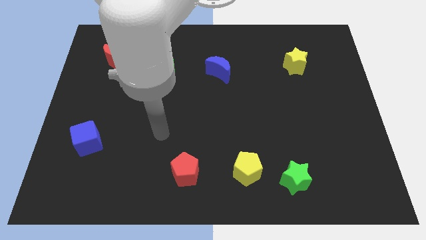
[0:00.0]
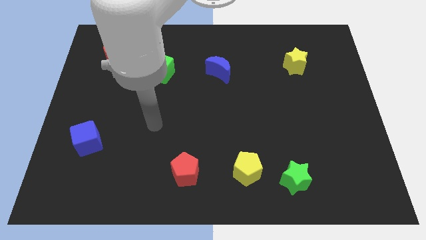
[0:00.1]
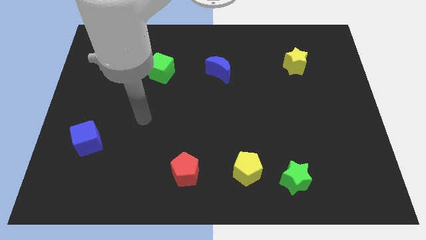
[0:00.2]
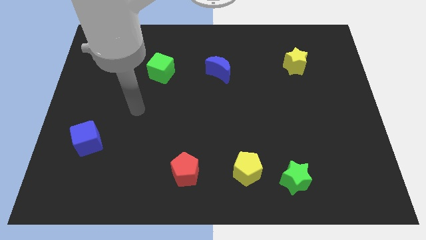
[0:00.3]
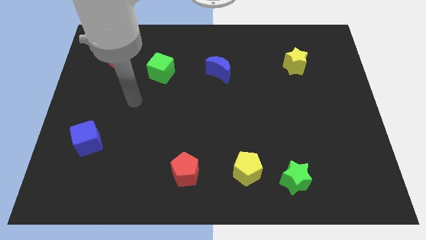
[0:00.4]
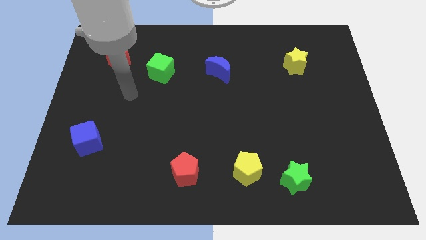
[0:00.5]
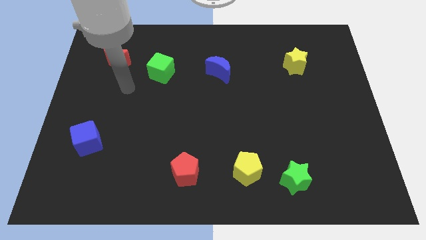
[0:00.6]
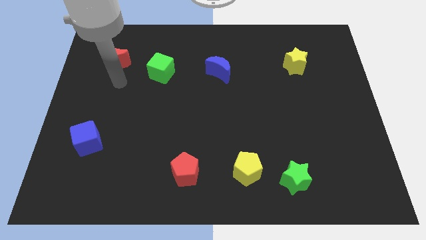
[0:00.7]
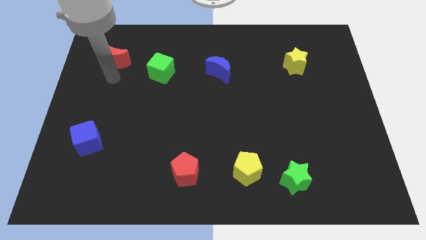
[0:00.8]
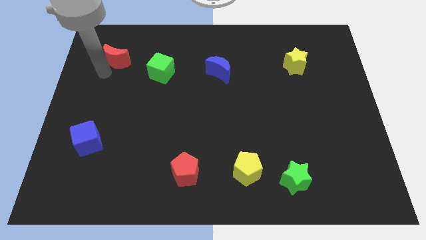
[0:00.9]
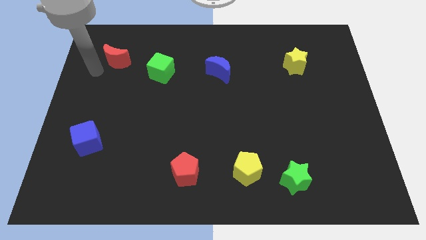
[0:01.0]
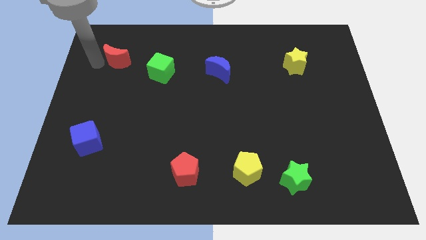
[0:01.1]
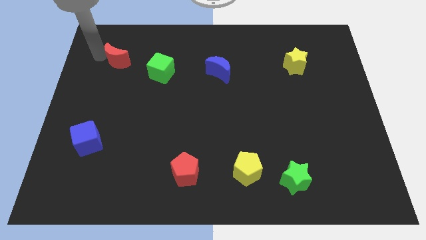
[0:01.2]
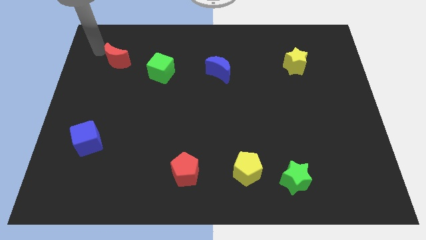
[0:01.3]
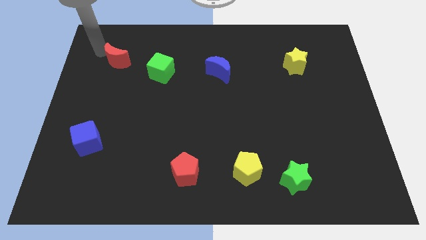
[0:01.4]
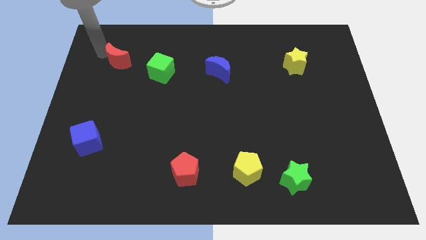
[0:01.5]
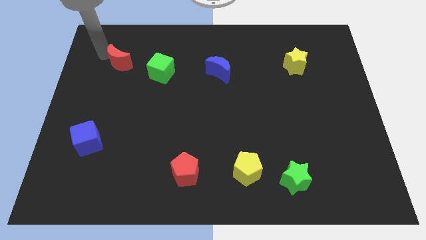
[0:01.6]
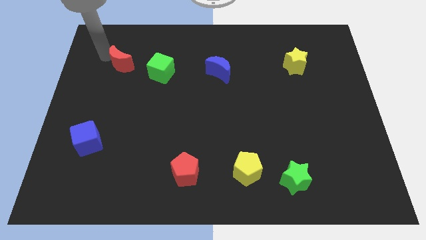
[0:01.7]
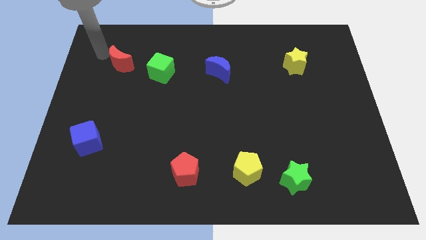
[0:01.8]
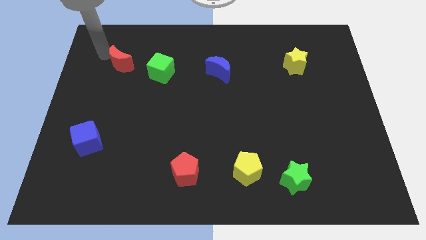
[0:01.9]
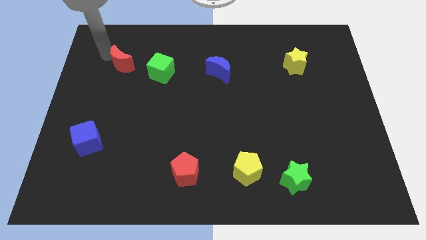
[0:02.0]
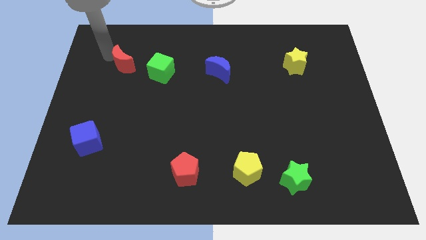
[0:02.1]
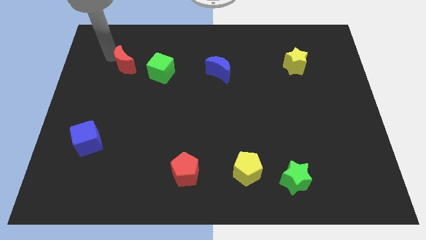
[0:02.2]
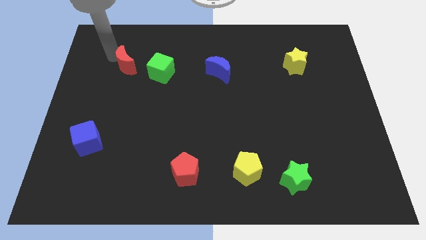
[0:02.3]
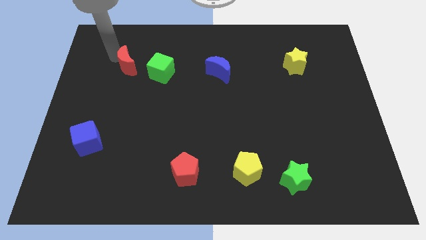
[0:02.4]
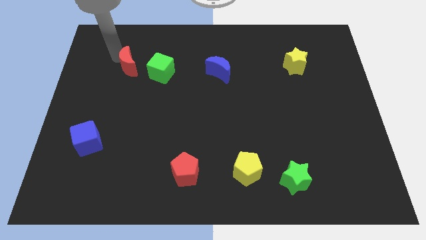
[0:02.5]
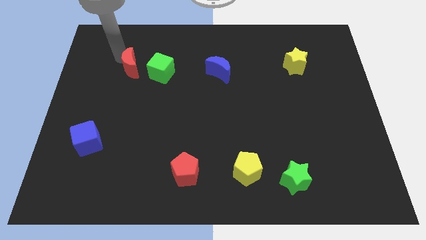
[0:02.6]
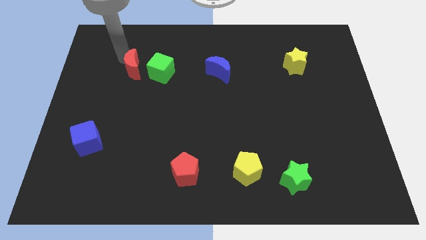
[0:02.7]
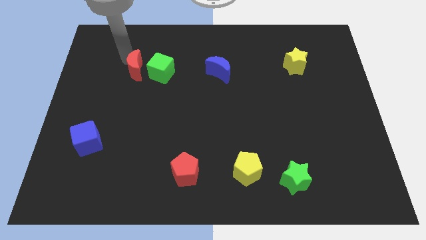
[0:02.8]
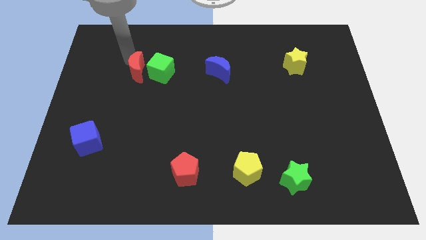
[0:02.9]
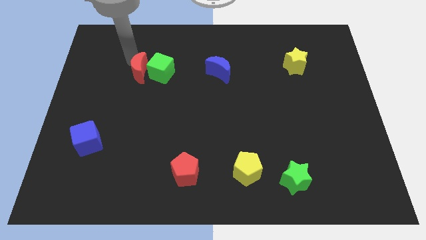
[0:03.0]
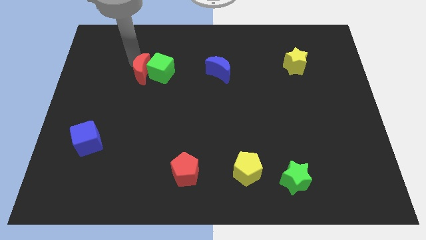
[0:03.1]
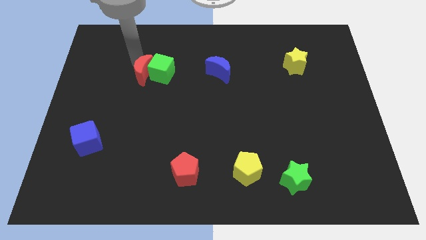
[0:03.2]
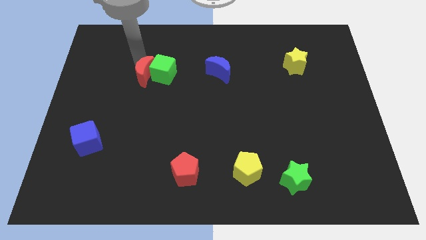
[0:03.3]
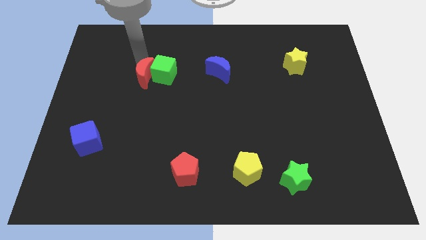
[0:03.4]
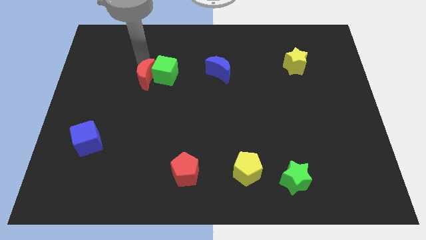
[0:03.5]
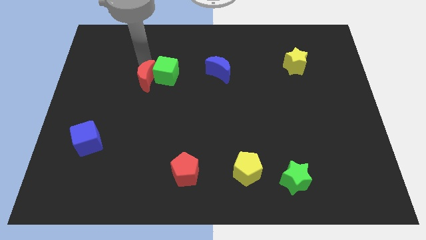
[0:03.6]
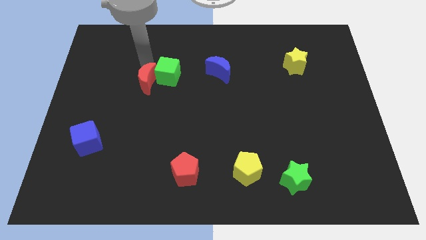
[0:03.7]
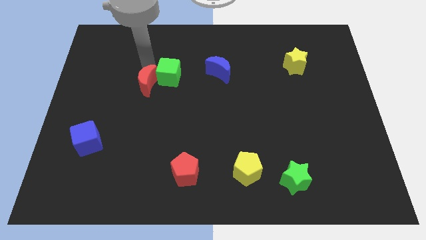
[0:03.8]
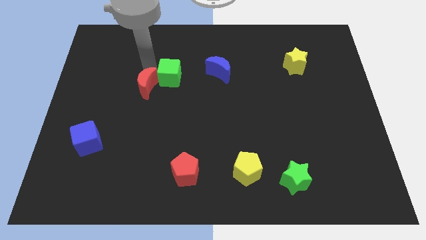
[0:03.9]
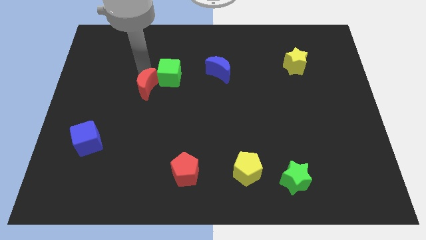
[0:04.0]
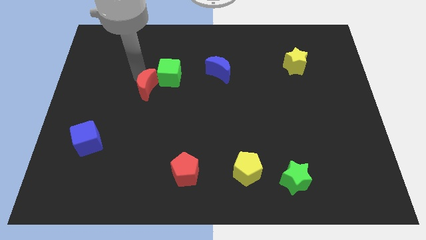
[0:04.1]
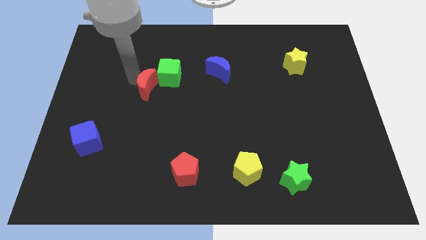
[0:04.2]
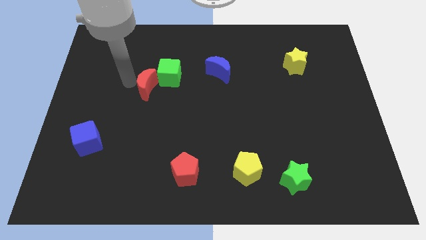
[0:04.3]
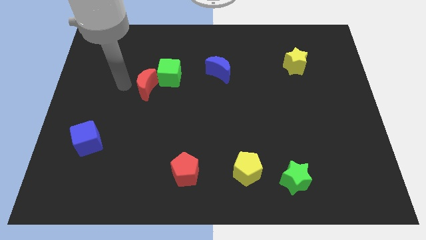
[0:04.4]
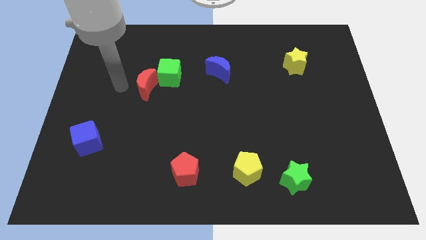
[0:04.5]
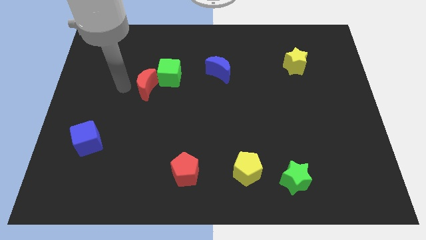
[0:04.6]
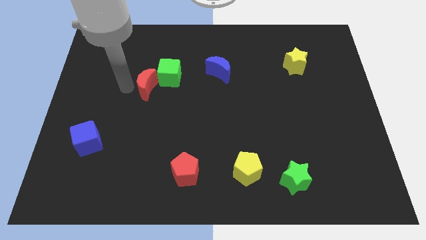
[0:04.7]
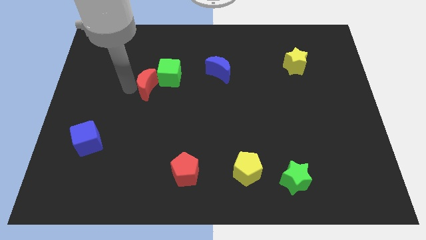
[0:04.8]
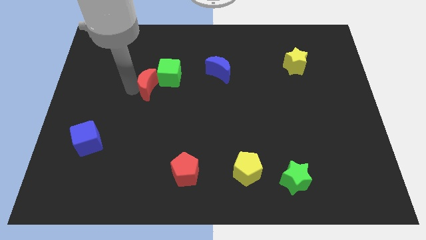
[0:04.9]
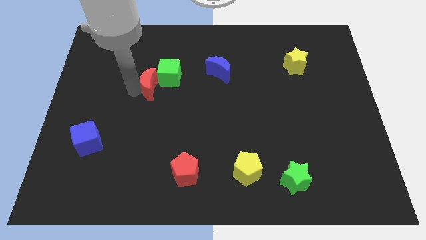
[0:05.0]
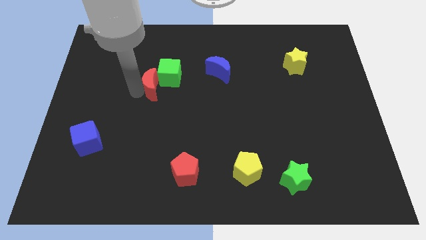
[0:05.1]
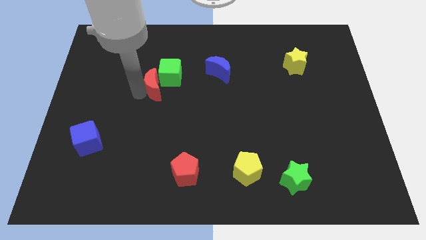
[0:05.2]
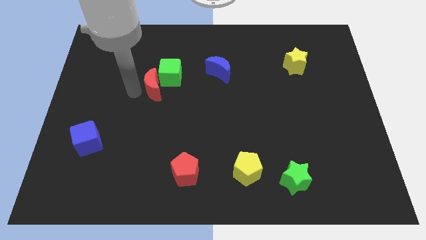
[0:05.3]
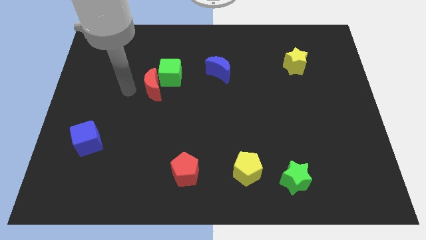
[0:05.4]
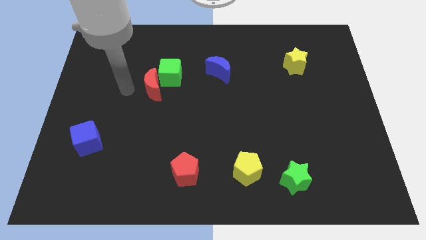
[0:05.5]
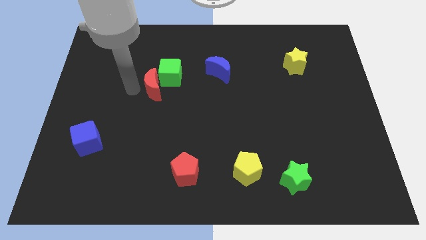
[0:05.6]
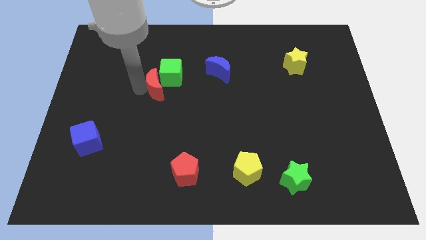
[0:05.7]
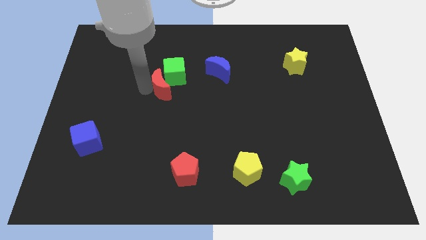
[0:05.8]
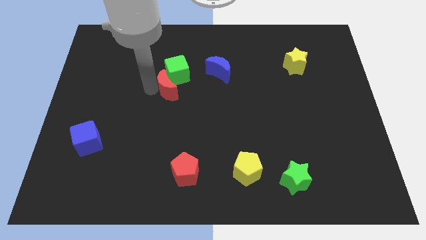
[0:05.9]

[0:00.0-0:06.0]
push the red moon to the middle
